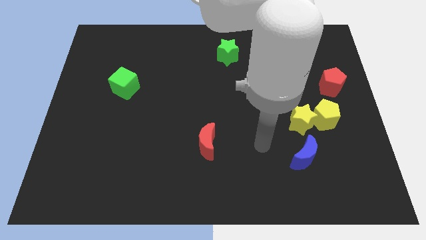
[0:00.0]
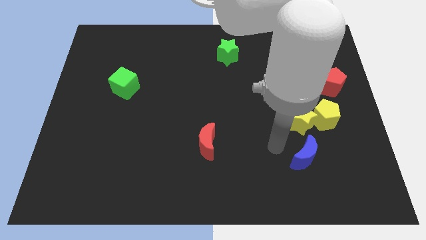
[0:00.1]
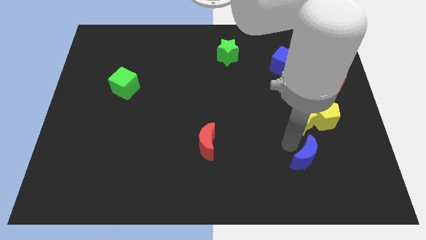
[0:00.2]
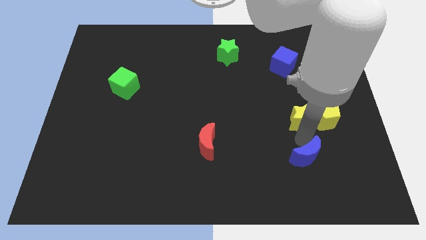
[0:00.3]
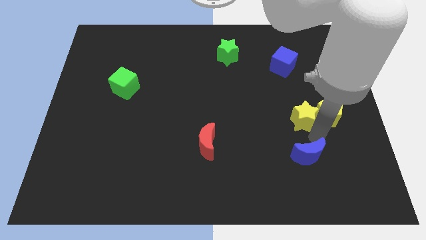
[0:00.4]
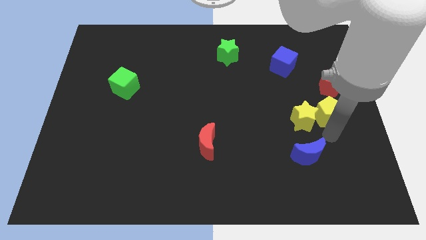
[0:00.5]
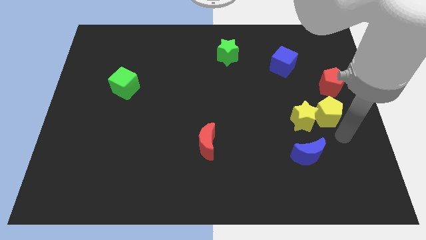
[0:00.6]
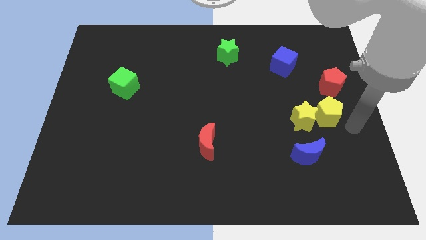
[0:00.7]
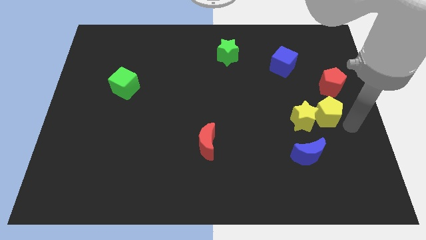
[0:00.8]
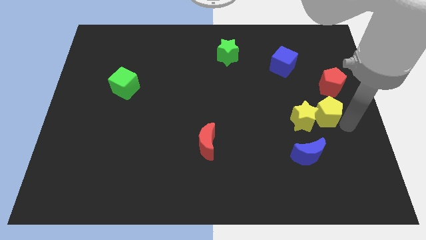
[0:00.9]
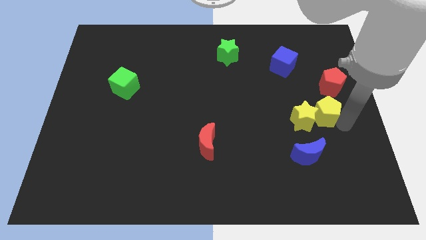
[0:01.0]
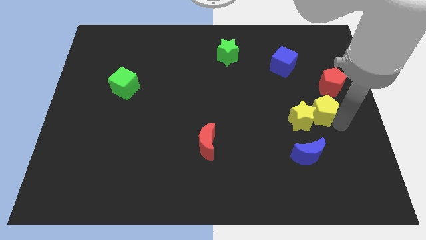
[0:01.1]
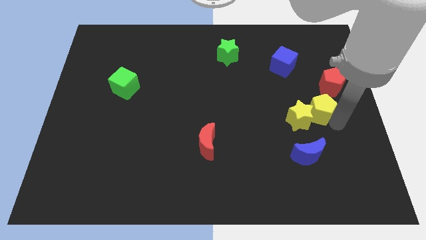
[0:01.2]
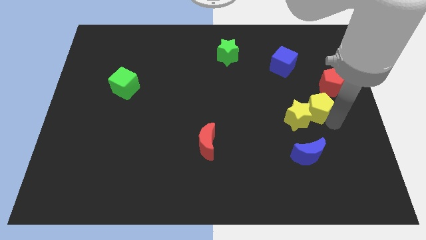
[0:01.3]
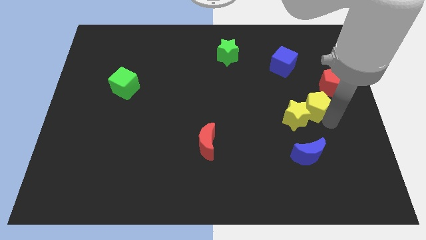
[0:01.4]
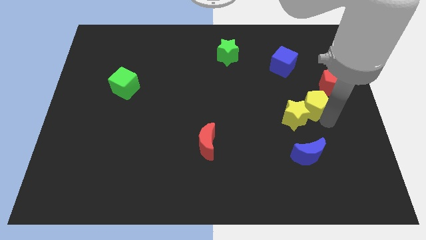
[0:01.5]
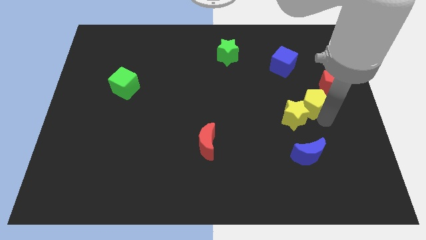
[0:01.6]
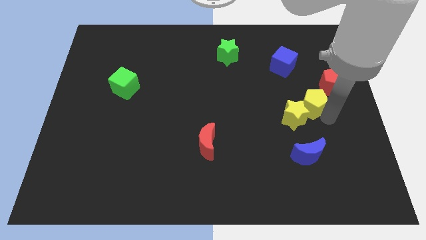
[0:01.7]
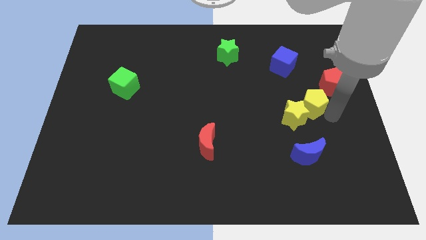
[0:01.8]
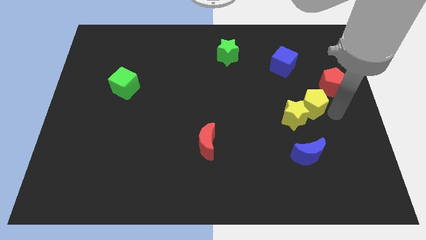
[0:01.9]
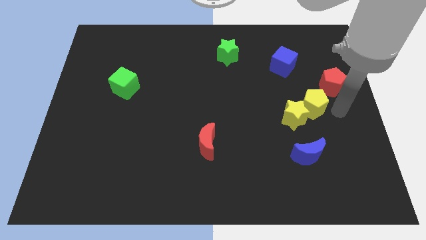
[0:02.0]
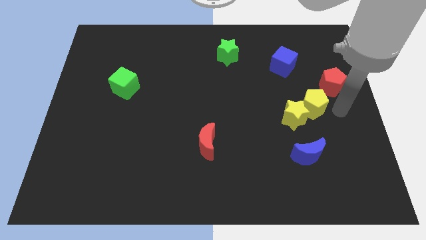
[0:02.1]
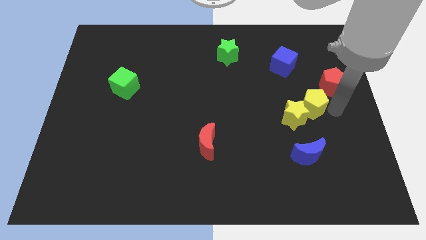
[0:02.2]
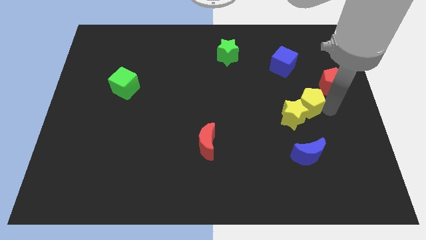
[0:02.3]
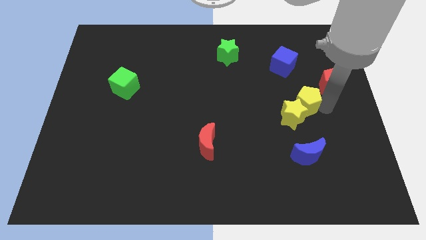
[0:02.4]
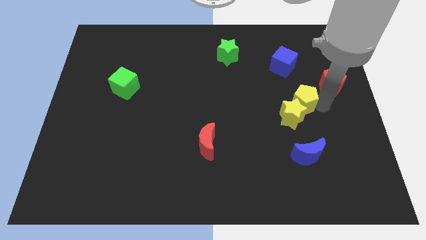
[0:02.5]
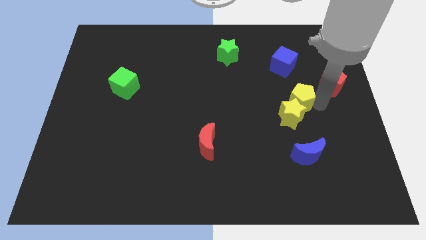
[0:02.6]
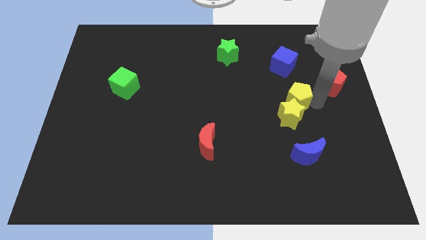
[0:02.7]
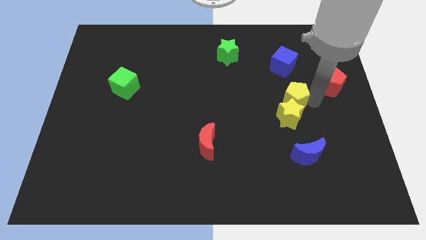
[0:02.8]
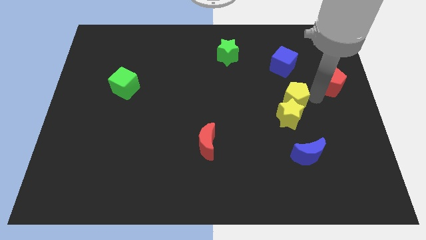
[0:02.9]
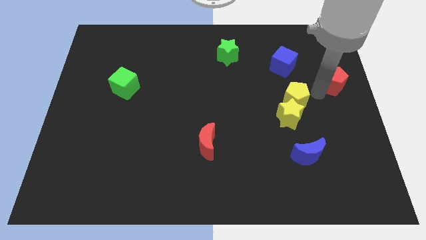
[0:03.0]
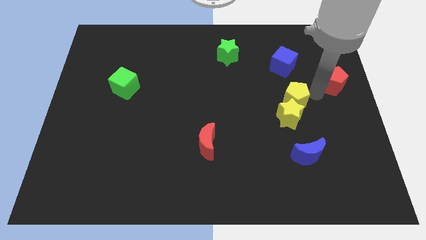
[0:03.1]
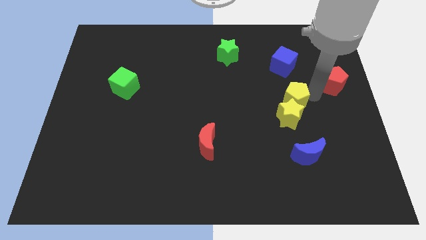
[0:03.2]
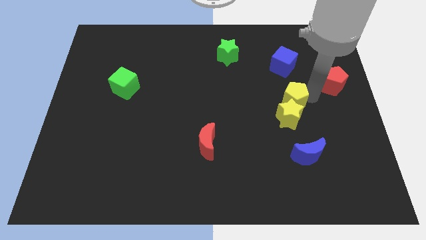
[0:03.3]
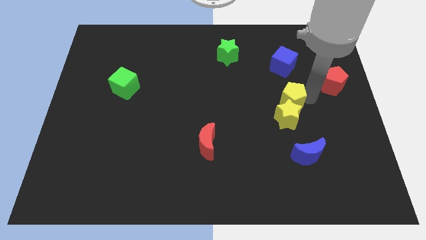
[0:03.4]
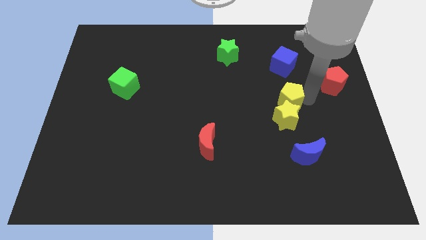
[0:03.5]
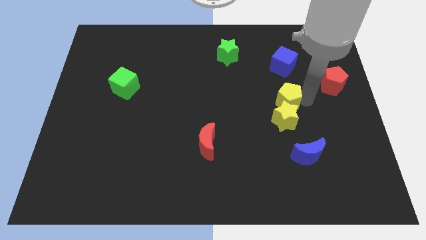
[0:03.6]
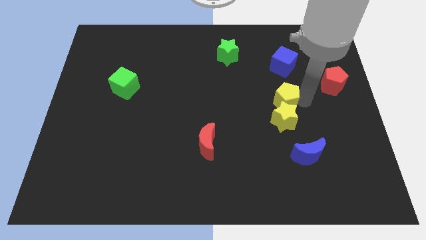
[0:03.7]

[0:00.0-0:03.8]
move the yellow pentagon left a little

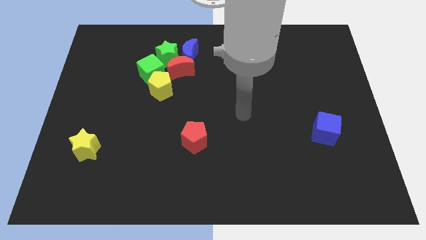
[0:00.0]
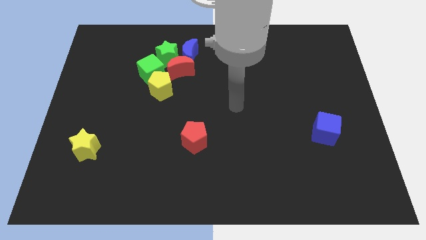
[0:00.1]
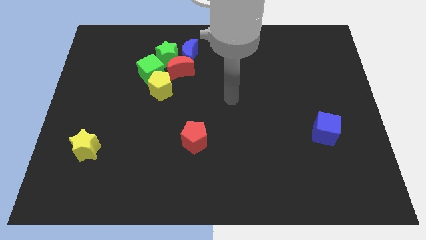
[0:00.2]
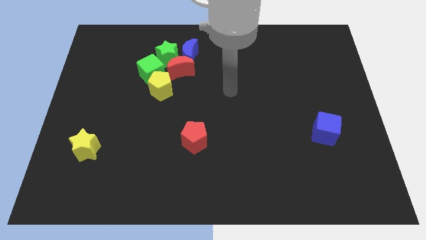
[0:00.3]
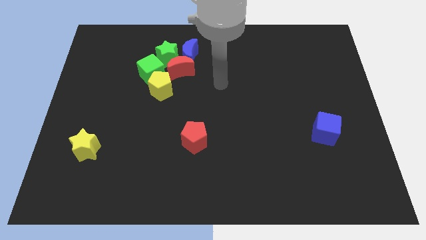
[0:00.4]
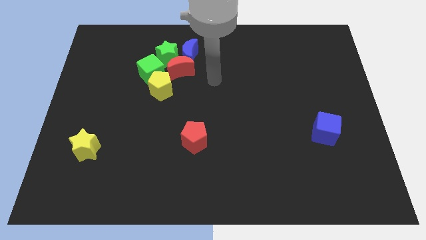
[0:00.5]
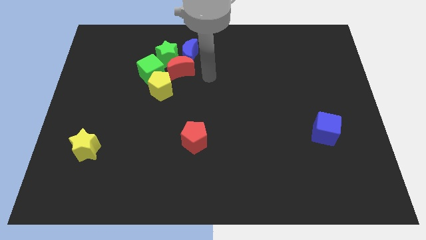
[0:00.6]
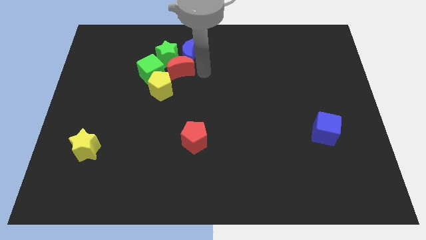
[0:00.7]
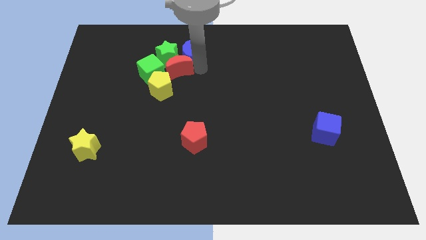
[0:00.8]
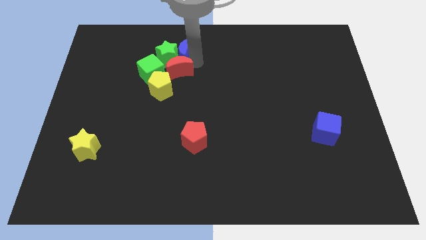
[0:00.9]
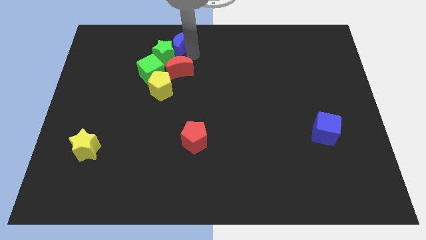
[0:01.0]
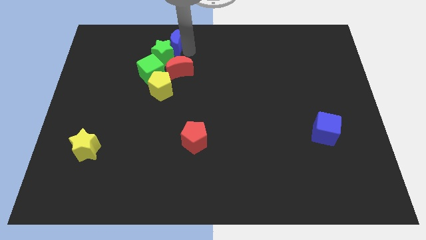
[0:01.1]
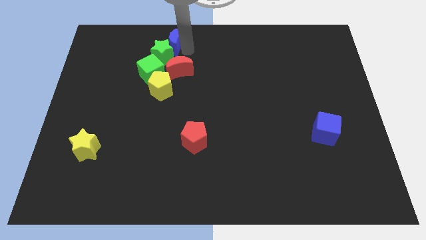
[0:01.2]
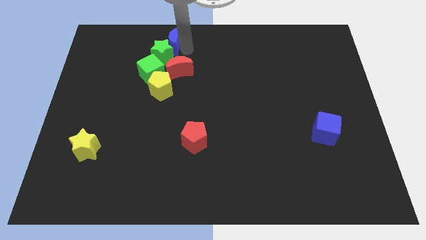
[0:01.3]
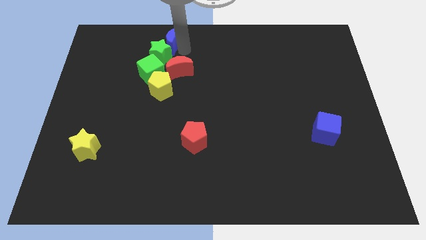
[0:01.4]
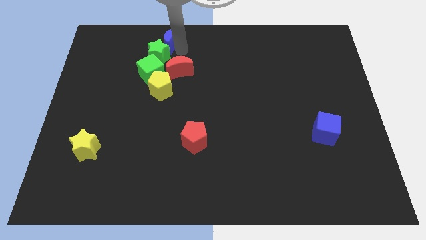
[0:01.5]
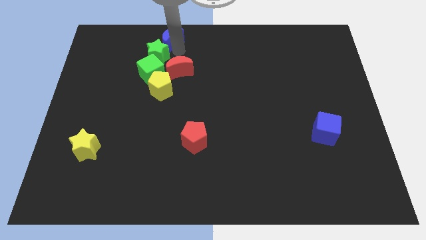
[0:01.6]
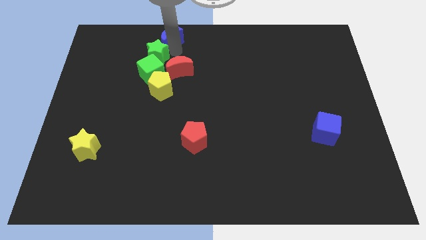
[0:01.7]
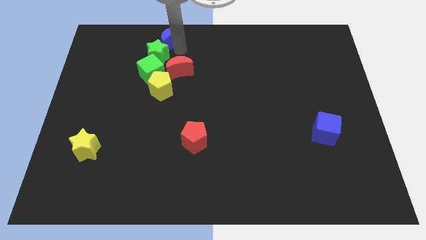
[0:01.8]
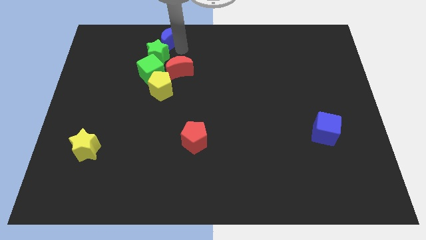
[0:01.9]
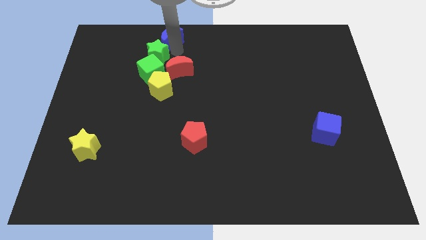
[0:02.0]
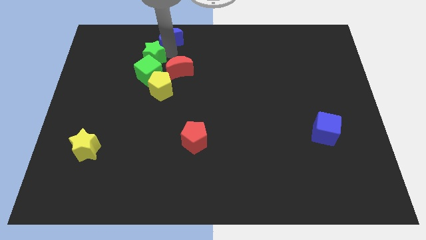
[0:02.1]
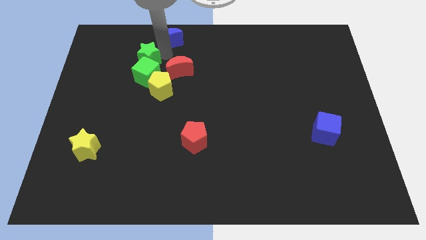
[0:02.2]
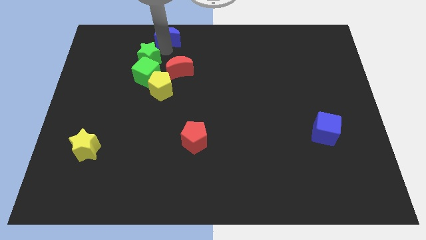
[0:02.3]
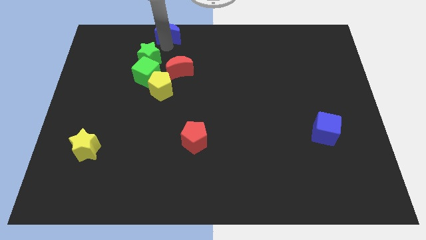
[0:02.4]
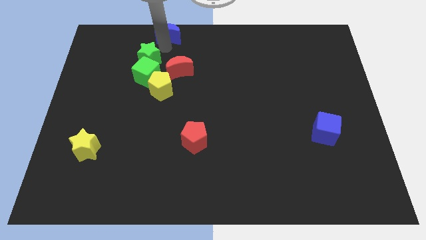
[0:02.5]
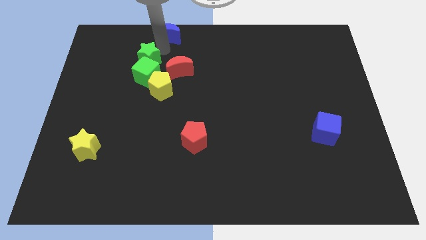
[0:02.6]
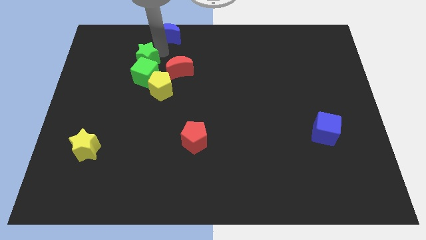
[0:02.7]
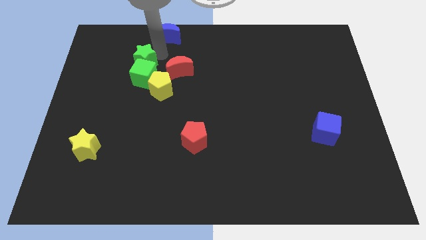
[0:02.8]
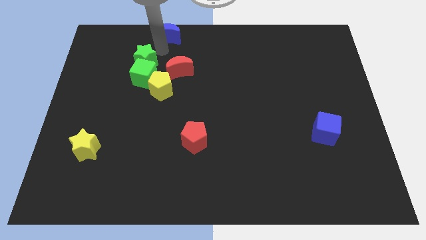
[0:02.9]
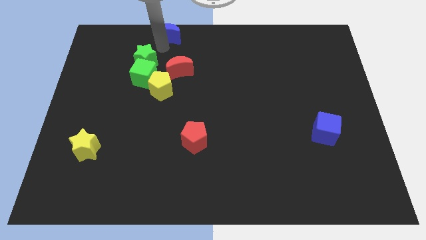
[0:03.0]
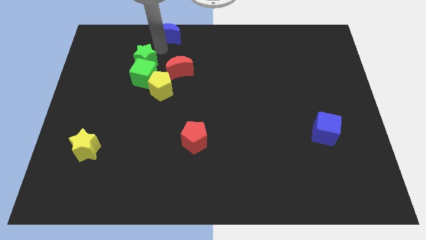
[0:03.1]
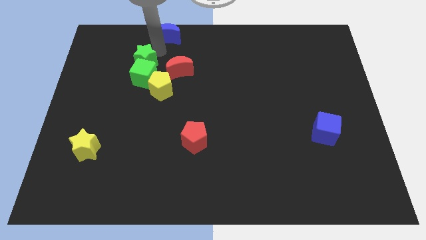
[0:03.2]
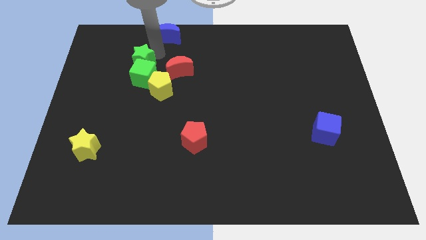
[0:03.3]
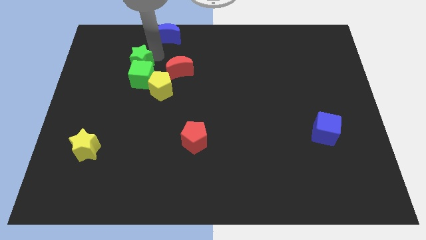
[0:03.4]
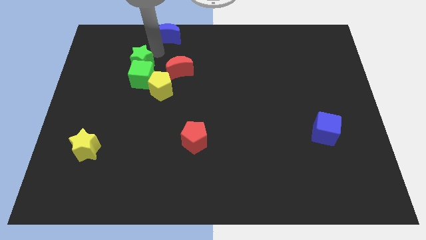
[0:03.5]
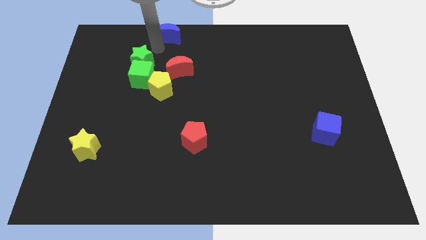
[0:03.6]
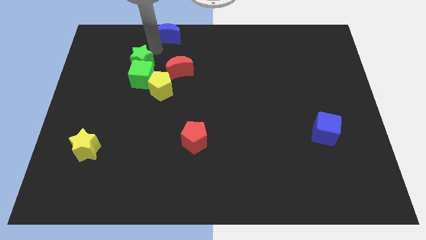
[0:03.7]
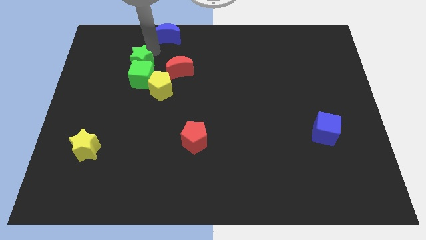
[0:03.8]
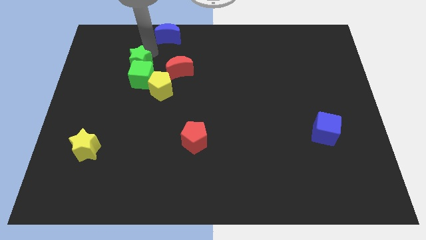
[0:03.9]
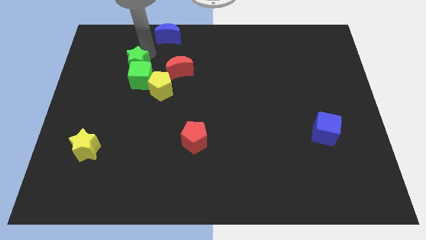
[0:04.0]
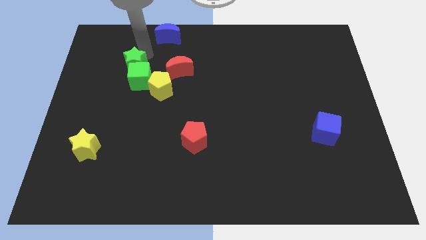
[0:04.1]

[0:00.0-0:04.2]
move the green star a little diagonally down and left

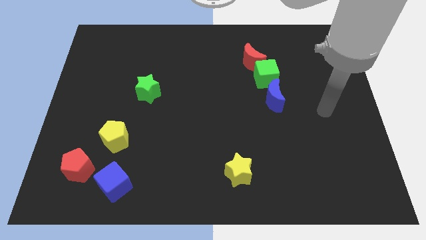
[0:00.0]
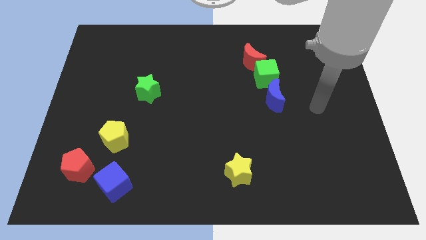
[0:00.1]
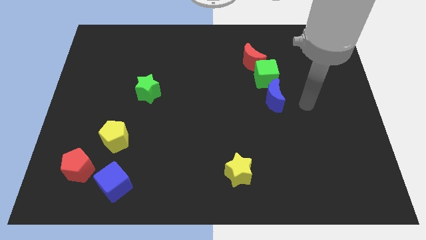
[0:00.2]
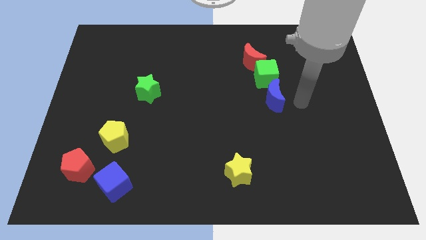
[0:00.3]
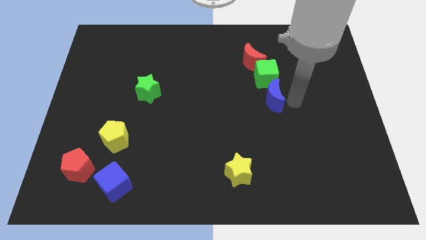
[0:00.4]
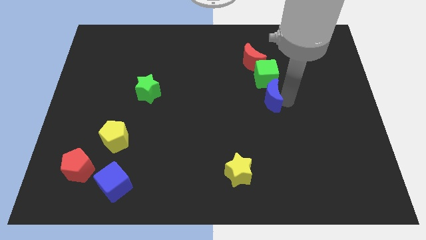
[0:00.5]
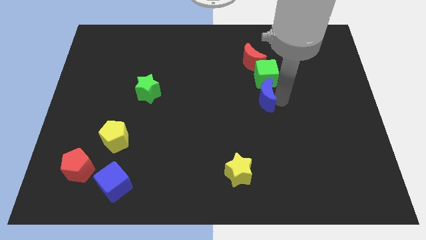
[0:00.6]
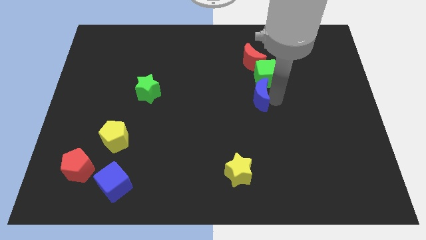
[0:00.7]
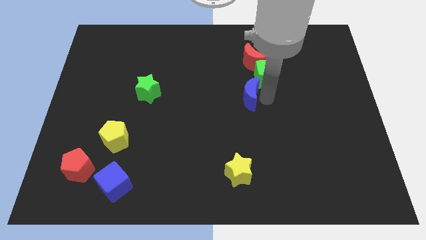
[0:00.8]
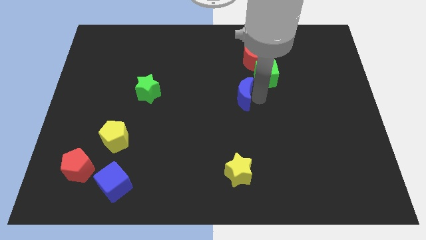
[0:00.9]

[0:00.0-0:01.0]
move the blue moon to the left a bit
